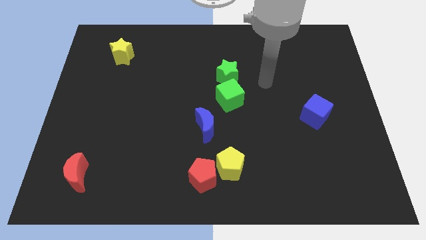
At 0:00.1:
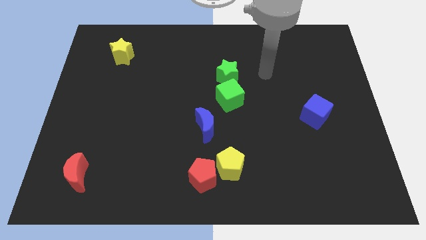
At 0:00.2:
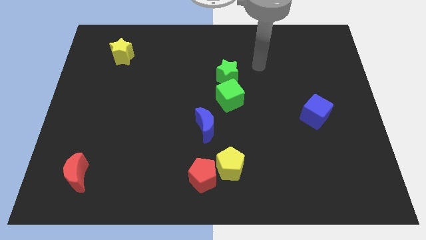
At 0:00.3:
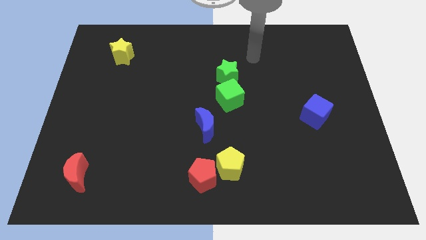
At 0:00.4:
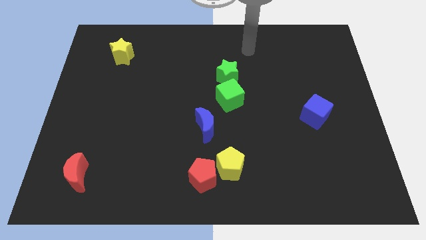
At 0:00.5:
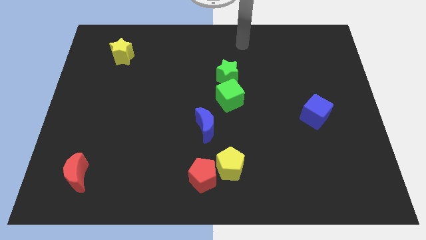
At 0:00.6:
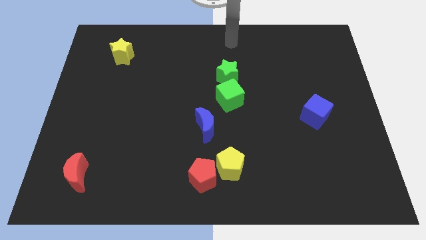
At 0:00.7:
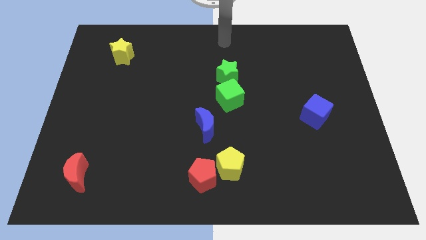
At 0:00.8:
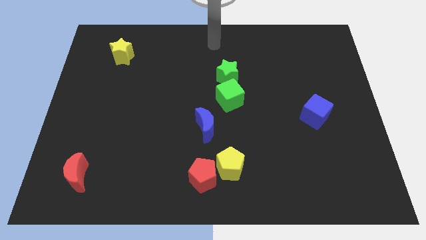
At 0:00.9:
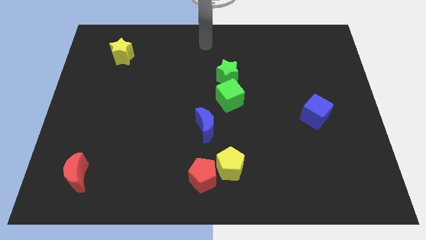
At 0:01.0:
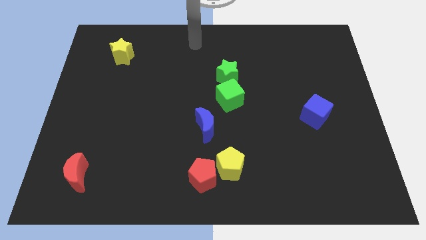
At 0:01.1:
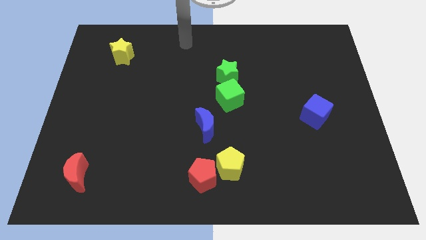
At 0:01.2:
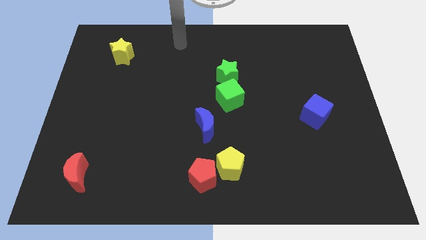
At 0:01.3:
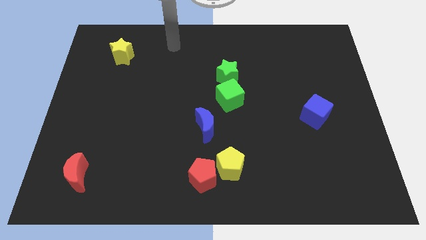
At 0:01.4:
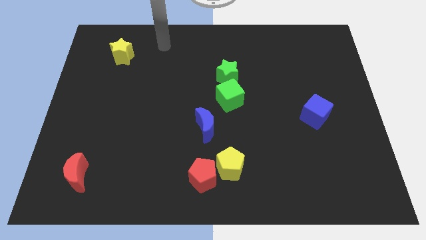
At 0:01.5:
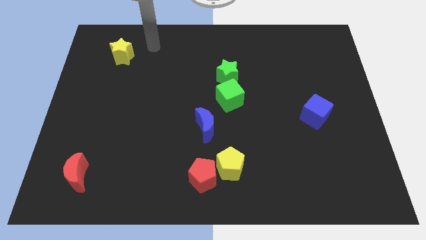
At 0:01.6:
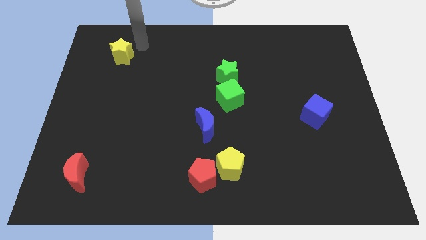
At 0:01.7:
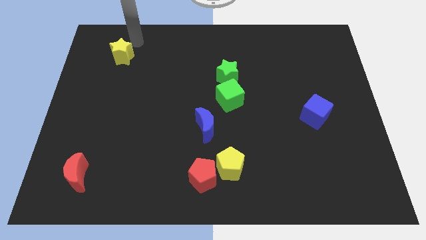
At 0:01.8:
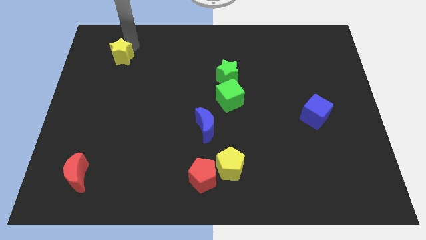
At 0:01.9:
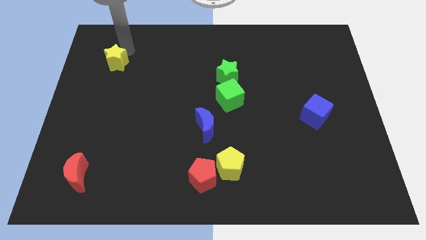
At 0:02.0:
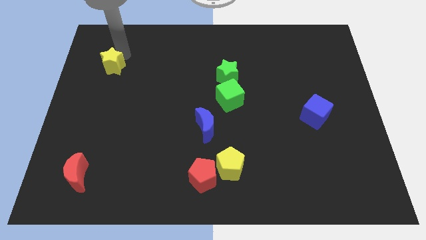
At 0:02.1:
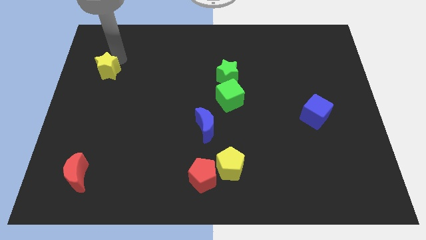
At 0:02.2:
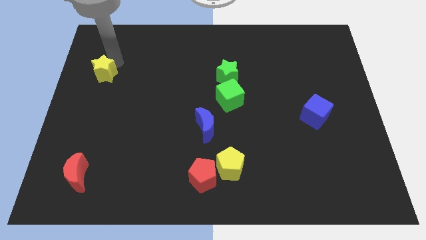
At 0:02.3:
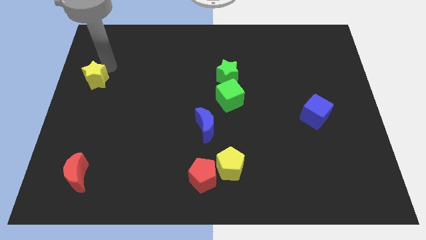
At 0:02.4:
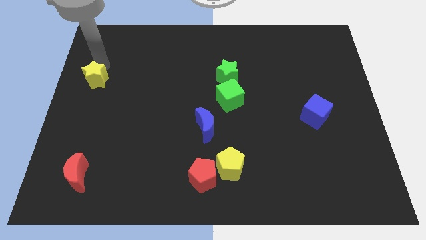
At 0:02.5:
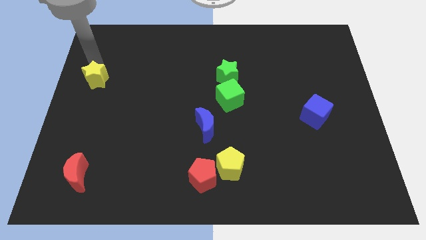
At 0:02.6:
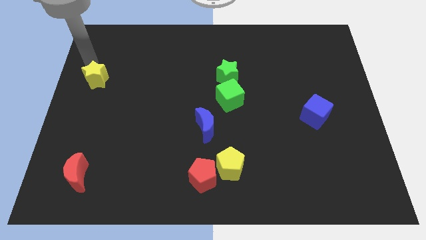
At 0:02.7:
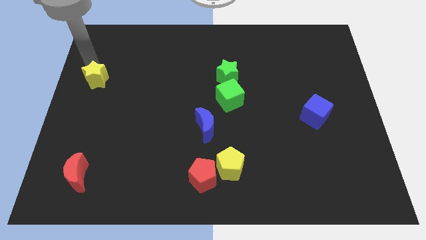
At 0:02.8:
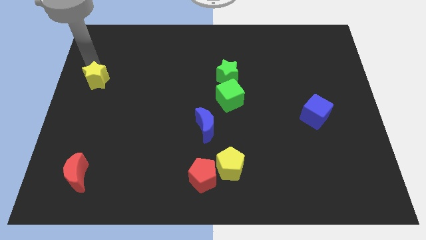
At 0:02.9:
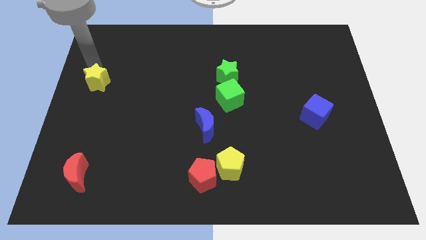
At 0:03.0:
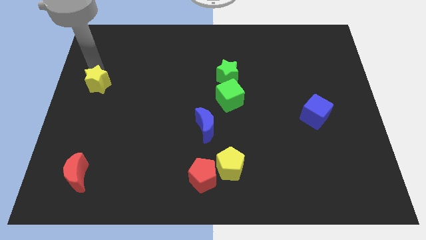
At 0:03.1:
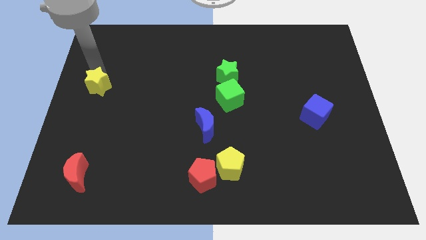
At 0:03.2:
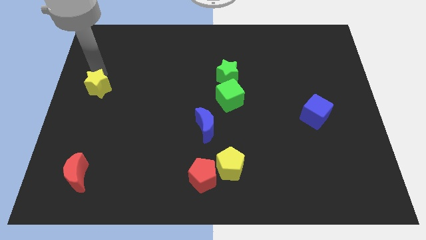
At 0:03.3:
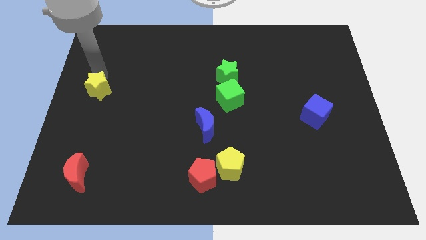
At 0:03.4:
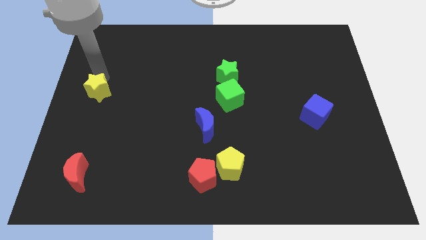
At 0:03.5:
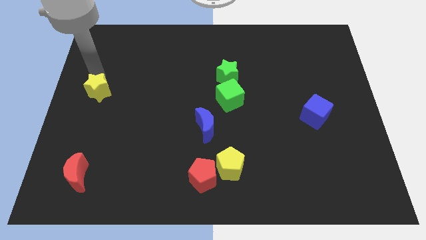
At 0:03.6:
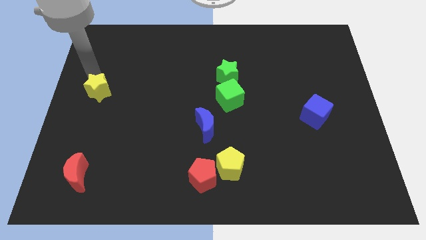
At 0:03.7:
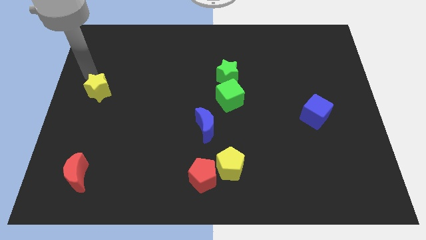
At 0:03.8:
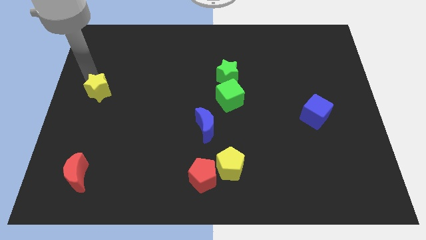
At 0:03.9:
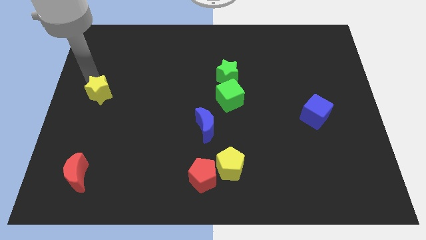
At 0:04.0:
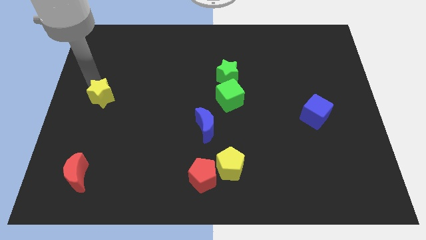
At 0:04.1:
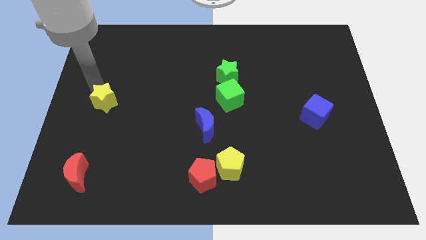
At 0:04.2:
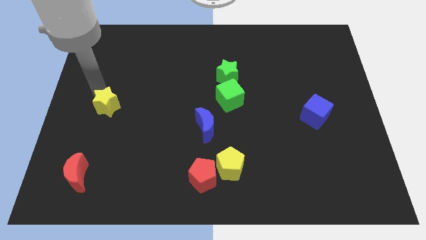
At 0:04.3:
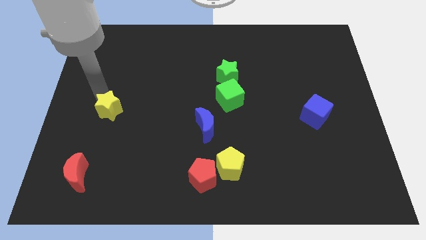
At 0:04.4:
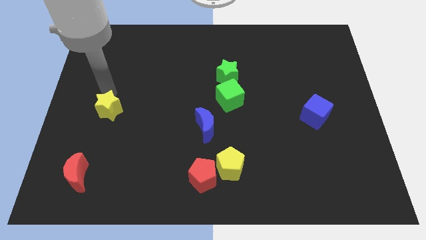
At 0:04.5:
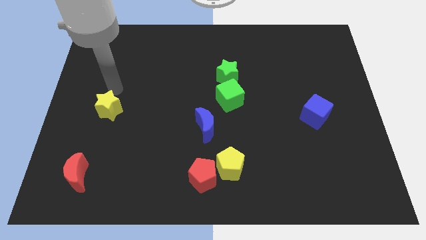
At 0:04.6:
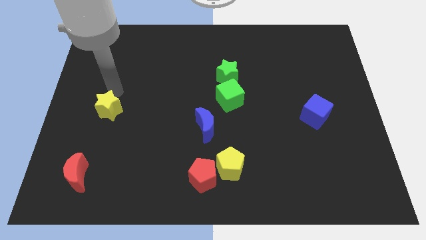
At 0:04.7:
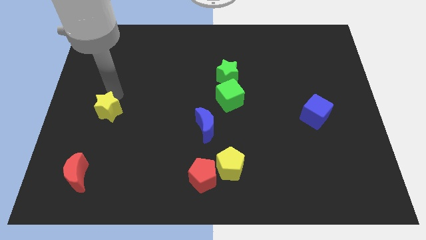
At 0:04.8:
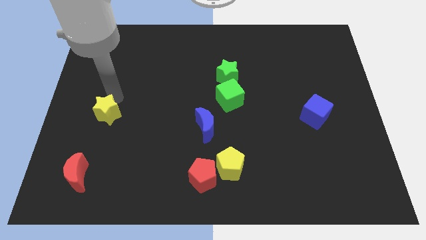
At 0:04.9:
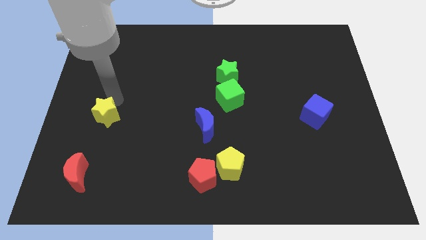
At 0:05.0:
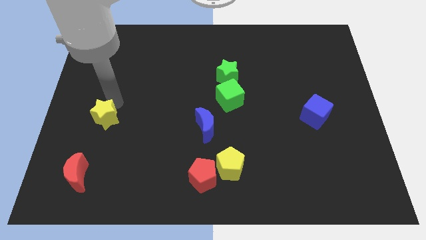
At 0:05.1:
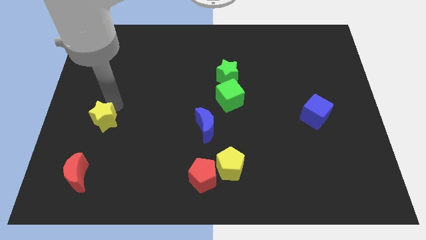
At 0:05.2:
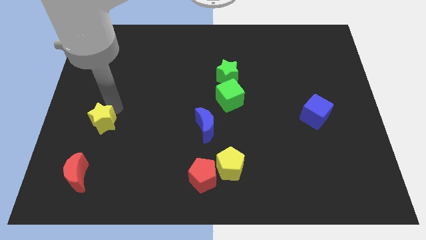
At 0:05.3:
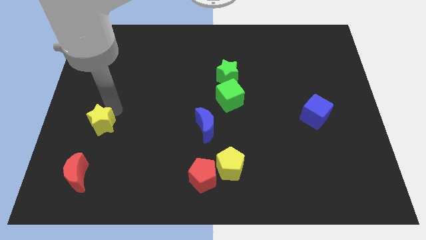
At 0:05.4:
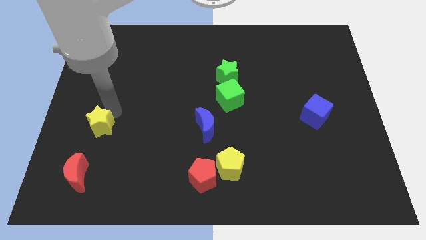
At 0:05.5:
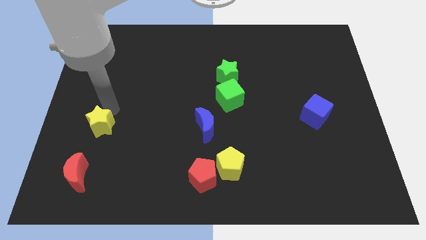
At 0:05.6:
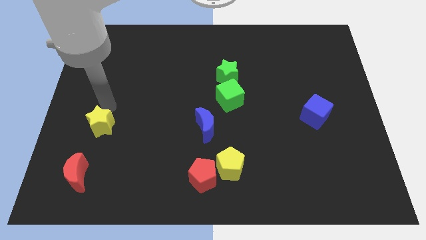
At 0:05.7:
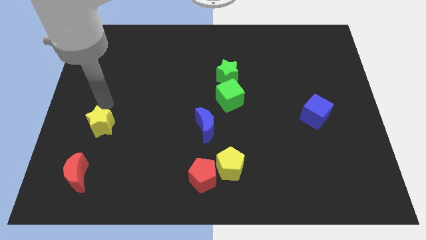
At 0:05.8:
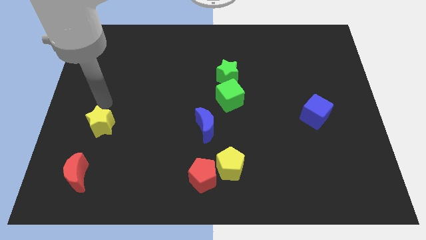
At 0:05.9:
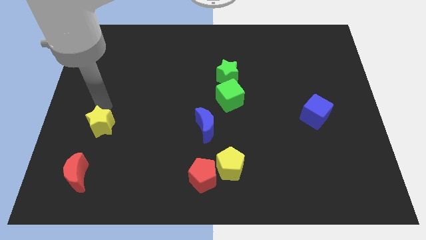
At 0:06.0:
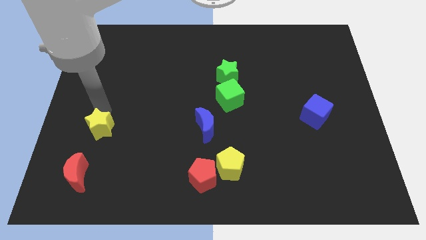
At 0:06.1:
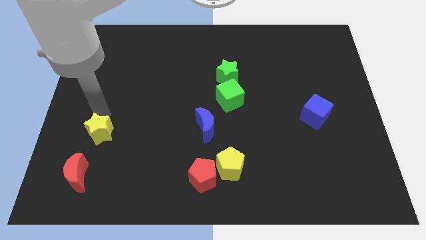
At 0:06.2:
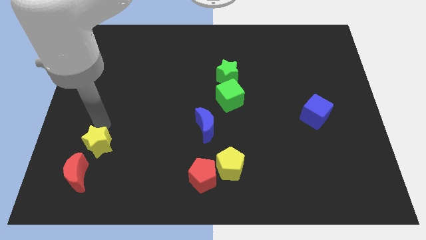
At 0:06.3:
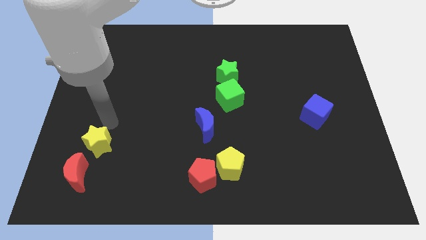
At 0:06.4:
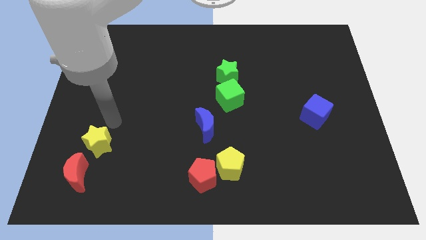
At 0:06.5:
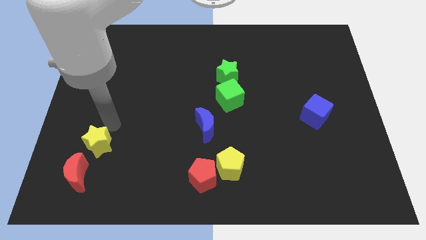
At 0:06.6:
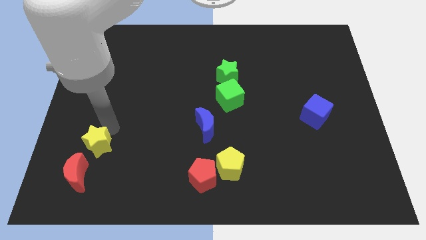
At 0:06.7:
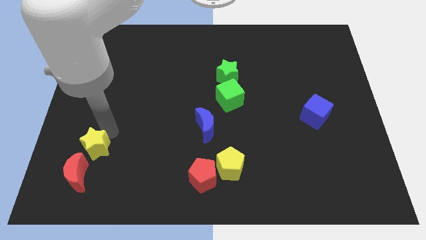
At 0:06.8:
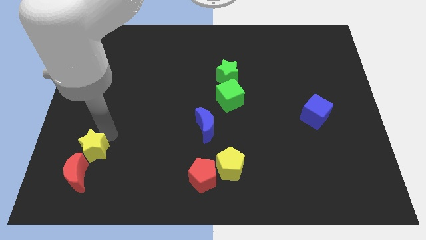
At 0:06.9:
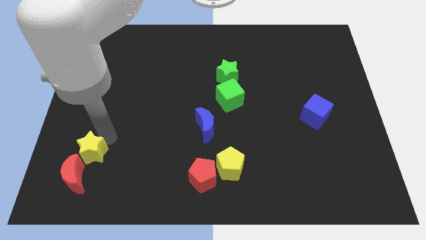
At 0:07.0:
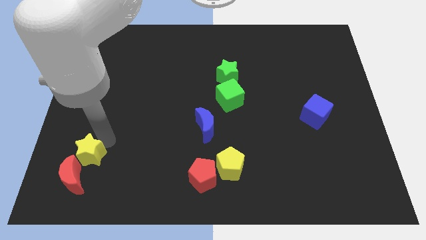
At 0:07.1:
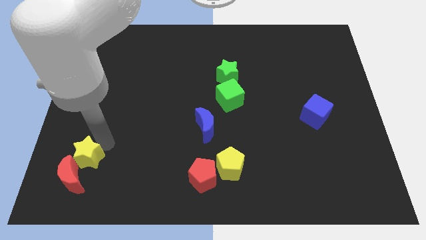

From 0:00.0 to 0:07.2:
slide the yellow star close to the red moon
